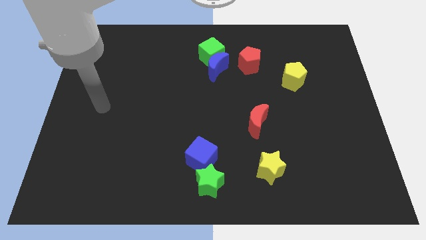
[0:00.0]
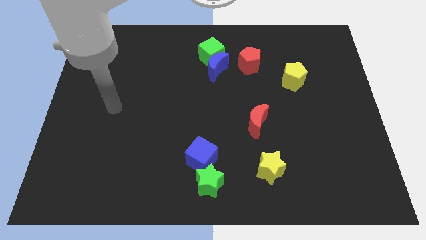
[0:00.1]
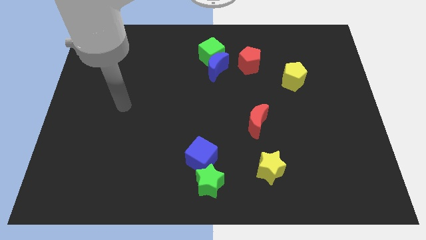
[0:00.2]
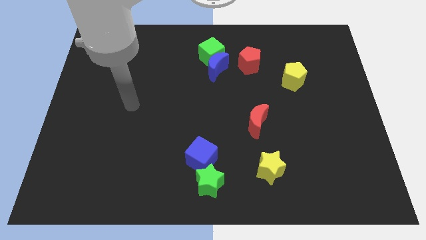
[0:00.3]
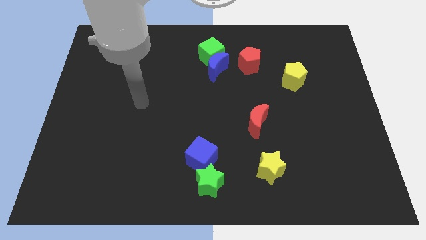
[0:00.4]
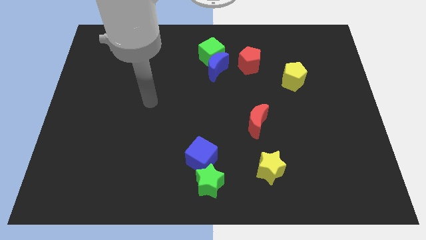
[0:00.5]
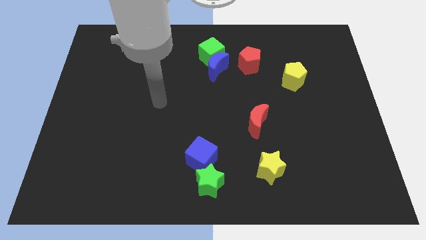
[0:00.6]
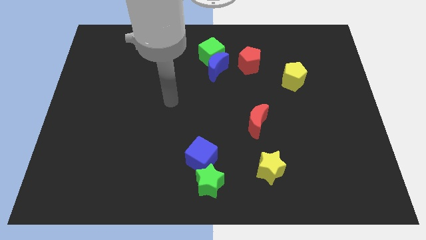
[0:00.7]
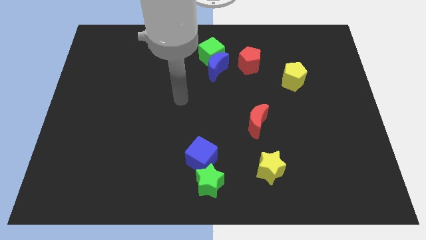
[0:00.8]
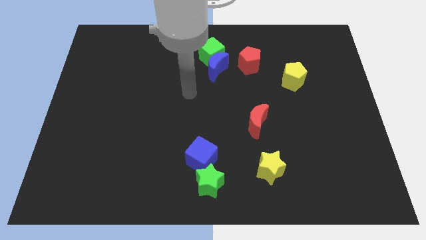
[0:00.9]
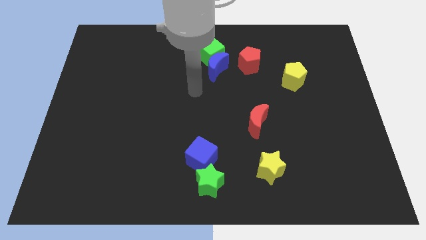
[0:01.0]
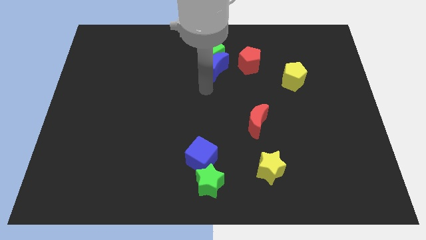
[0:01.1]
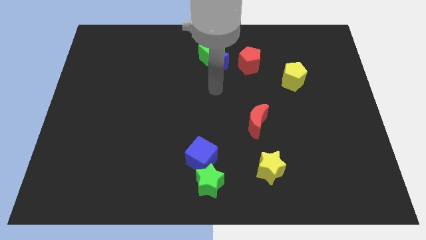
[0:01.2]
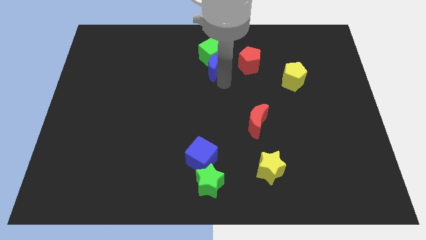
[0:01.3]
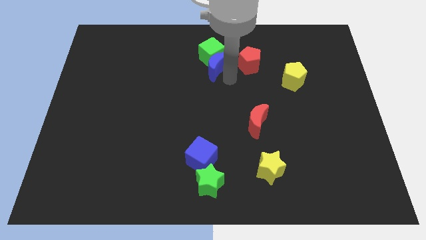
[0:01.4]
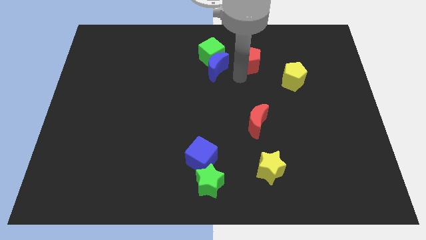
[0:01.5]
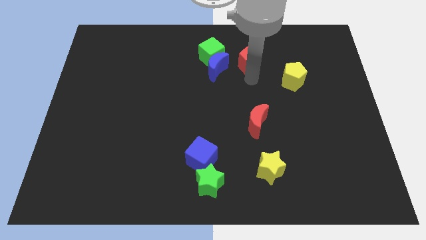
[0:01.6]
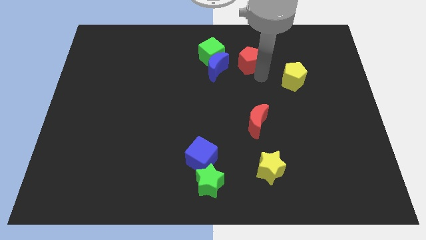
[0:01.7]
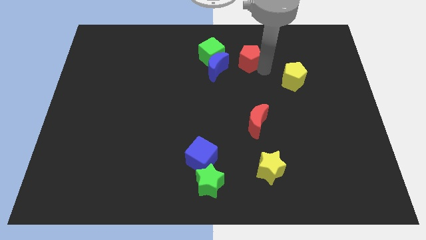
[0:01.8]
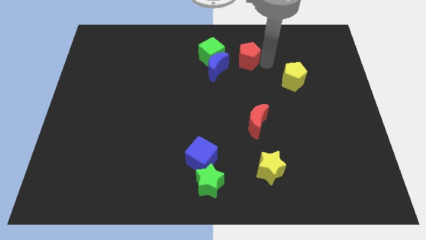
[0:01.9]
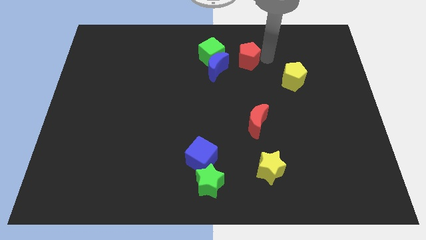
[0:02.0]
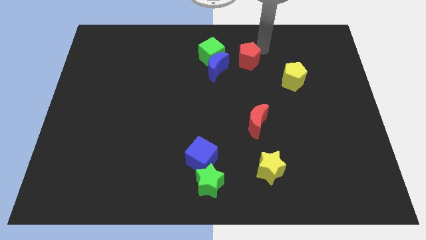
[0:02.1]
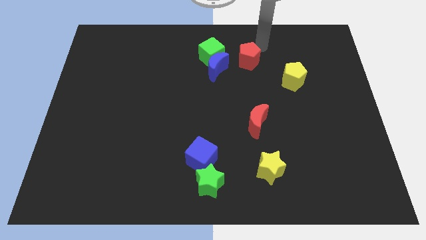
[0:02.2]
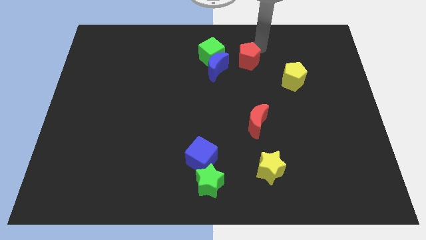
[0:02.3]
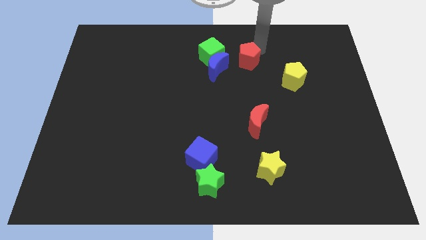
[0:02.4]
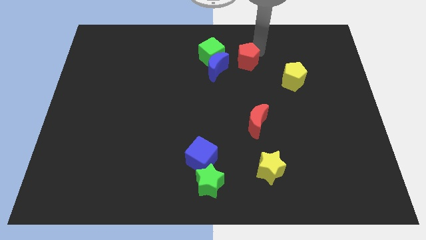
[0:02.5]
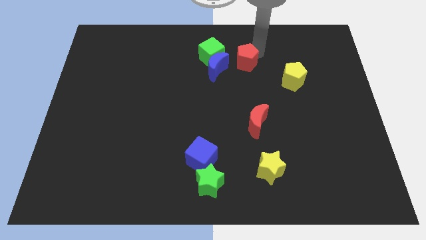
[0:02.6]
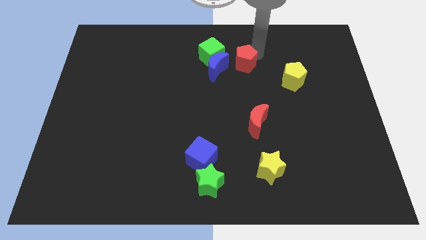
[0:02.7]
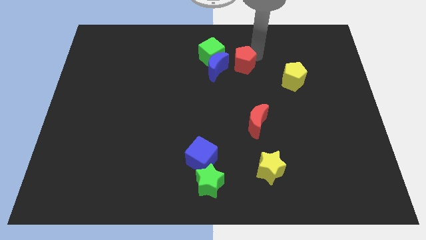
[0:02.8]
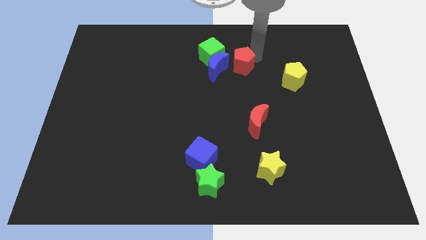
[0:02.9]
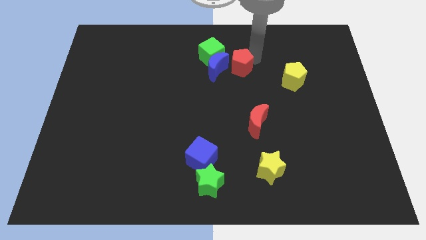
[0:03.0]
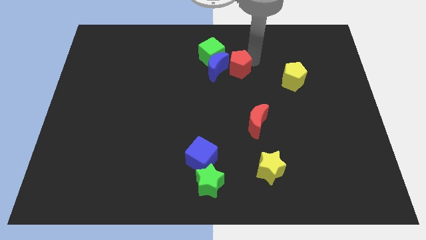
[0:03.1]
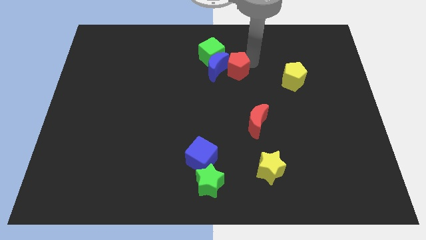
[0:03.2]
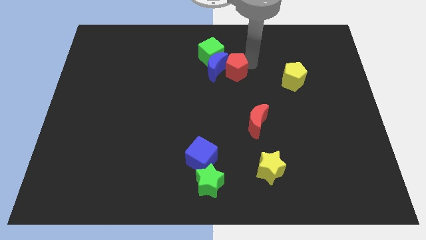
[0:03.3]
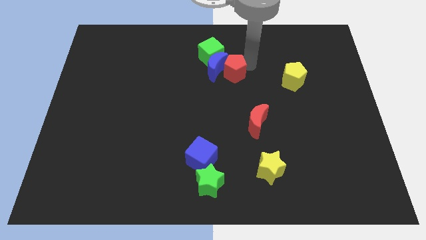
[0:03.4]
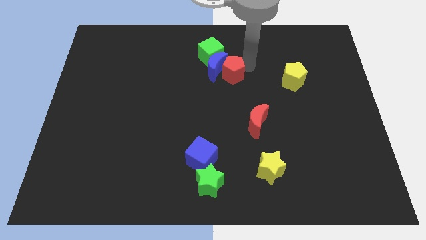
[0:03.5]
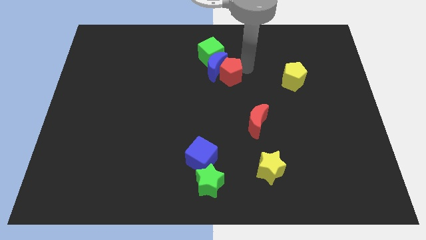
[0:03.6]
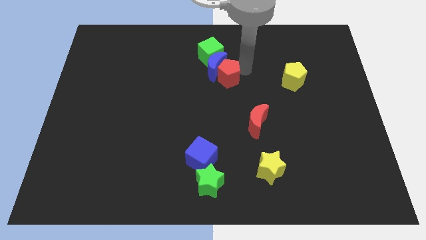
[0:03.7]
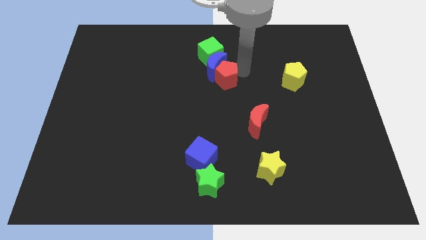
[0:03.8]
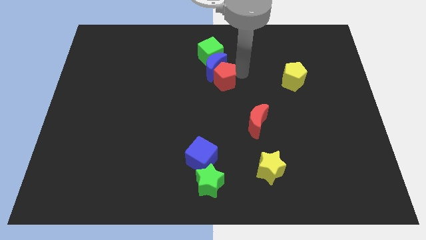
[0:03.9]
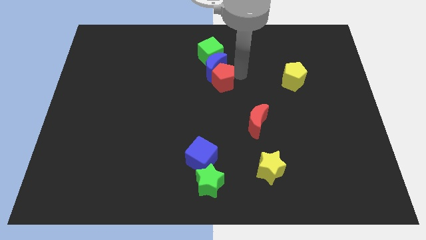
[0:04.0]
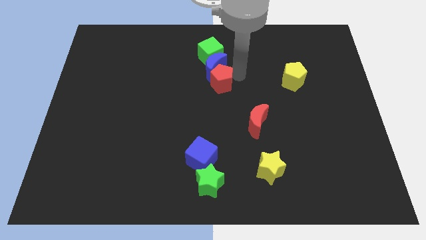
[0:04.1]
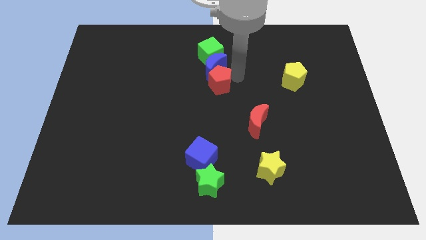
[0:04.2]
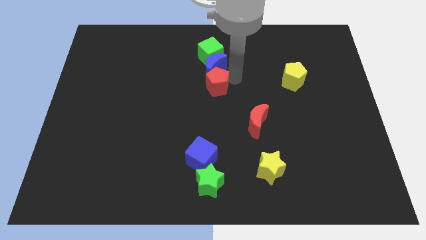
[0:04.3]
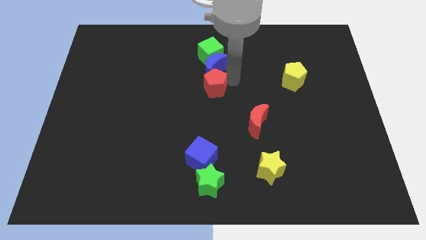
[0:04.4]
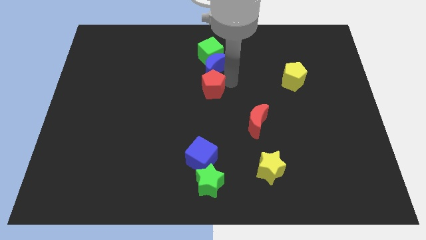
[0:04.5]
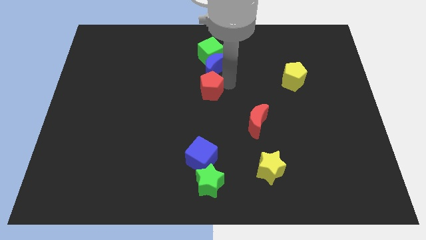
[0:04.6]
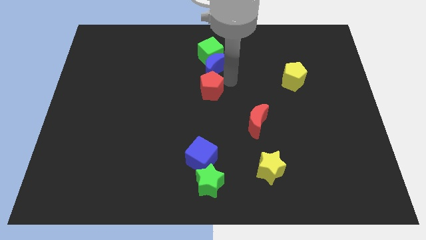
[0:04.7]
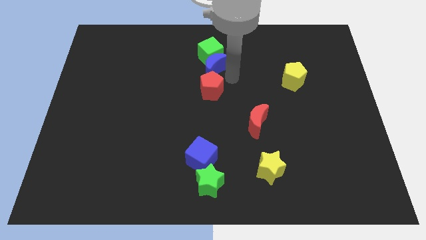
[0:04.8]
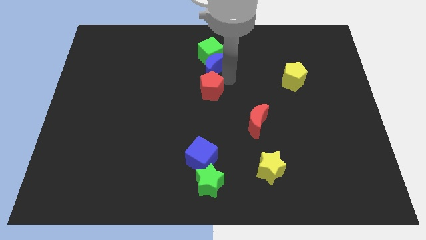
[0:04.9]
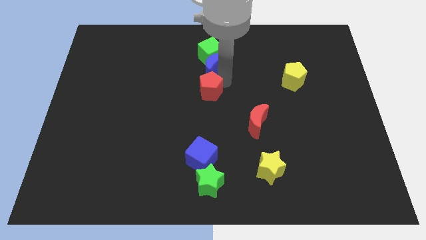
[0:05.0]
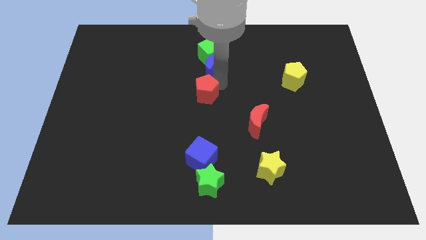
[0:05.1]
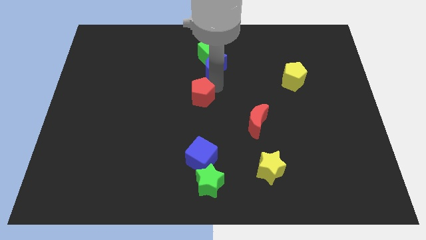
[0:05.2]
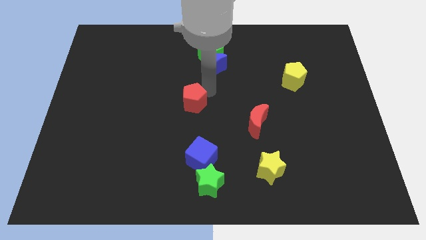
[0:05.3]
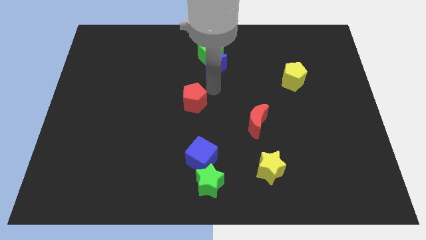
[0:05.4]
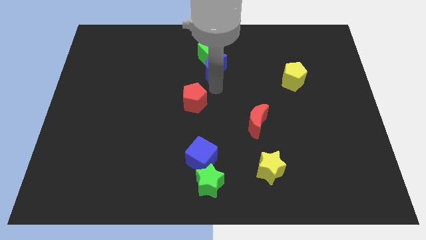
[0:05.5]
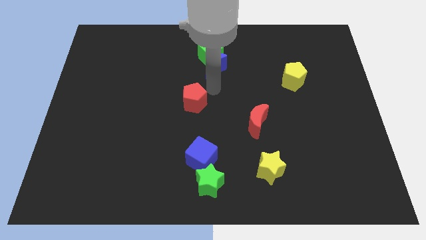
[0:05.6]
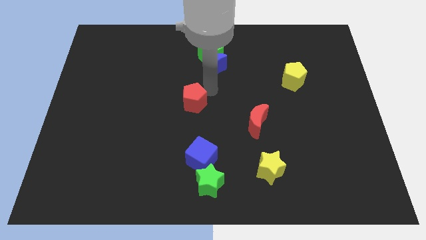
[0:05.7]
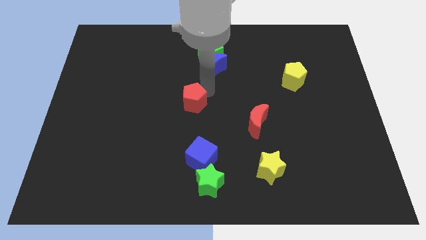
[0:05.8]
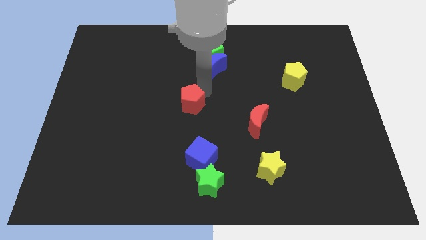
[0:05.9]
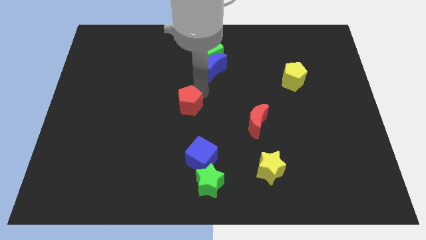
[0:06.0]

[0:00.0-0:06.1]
move the red pentagon down and then left

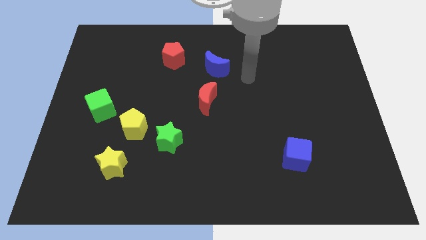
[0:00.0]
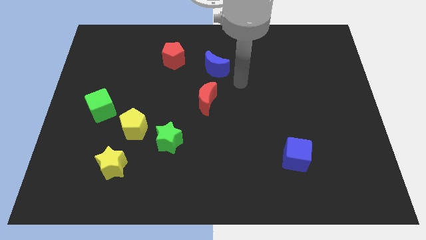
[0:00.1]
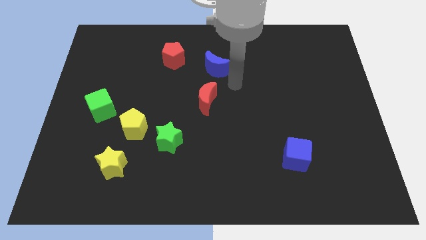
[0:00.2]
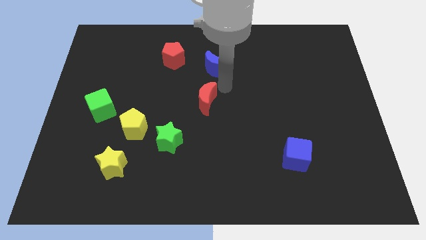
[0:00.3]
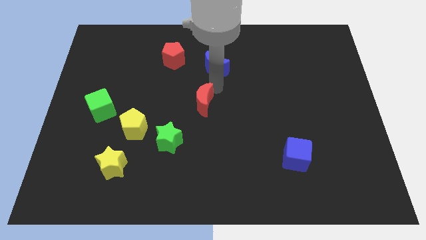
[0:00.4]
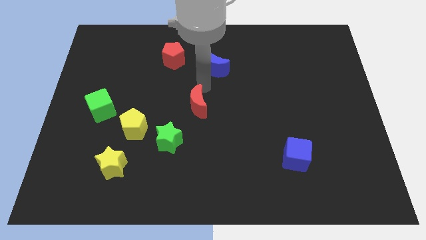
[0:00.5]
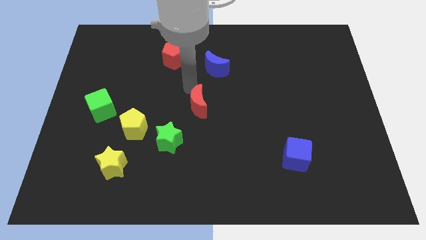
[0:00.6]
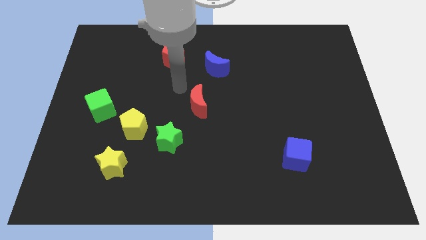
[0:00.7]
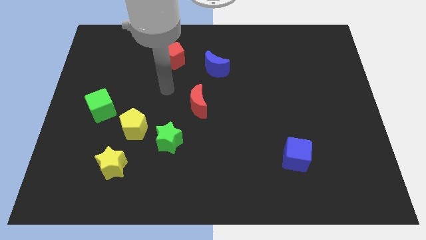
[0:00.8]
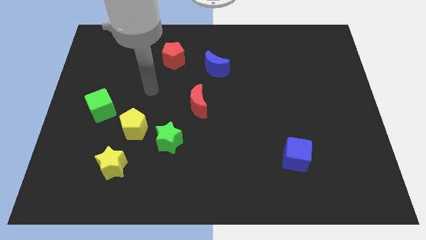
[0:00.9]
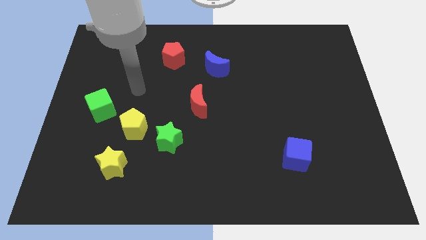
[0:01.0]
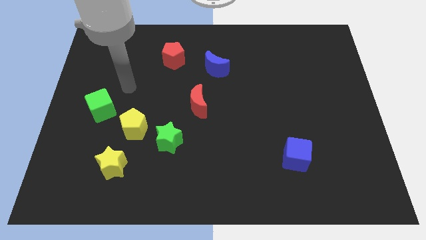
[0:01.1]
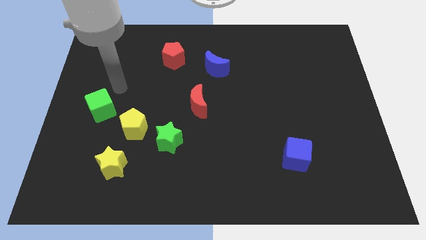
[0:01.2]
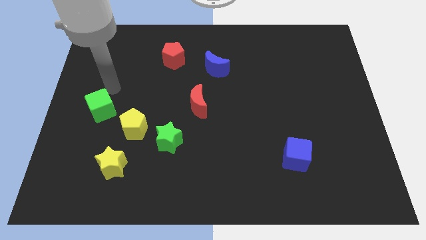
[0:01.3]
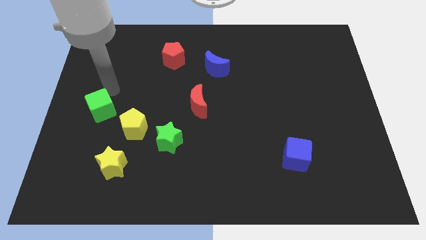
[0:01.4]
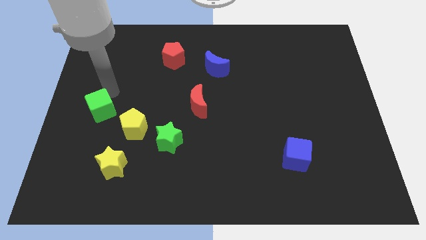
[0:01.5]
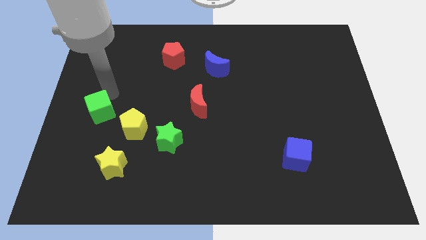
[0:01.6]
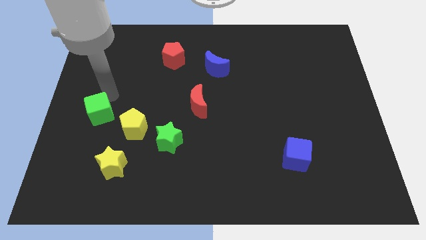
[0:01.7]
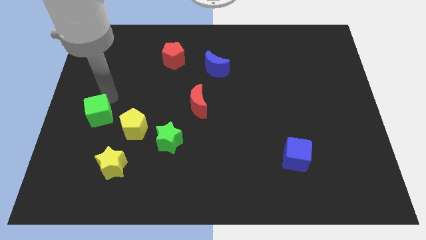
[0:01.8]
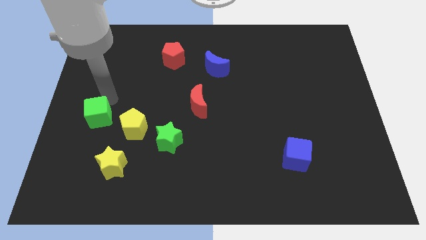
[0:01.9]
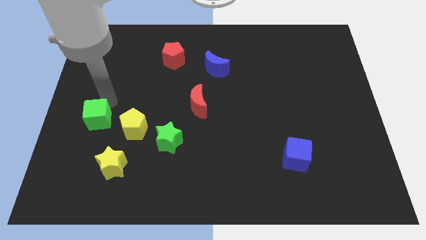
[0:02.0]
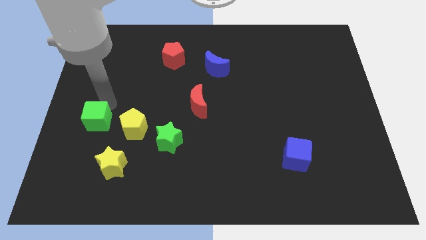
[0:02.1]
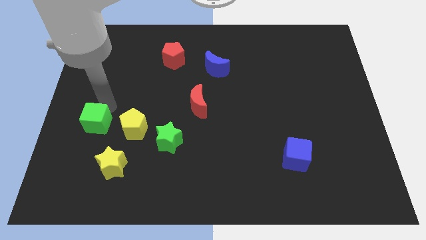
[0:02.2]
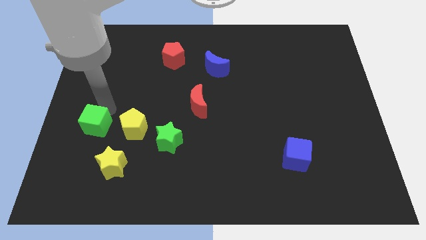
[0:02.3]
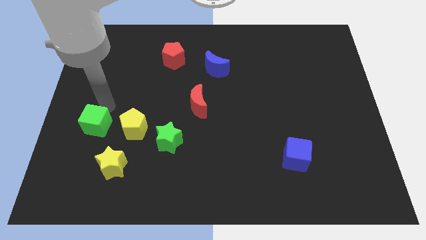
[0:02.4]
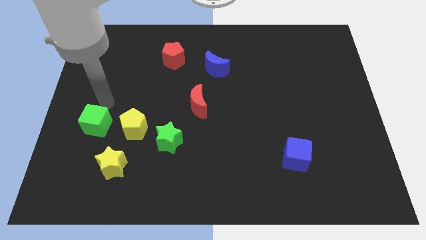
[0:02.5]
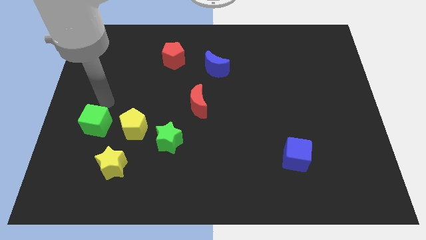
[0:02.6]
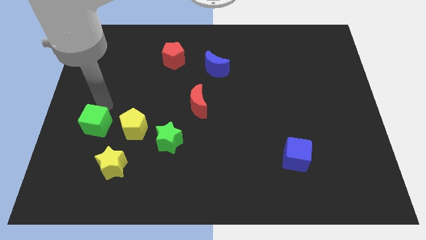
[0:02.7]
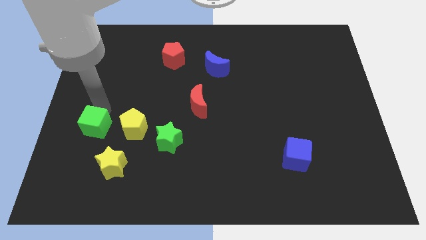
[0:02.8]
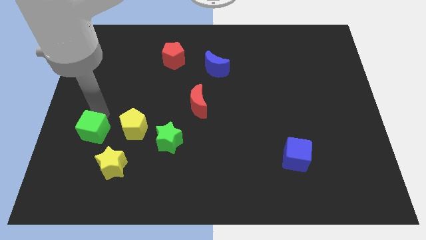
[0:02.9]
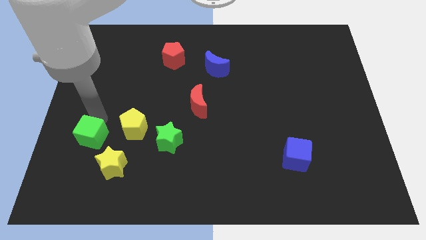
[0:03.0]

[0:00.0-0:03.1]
slightly slide the green cube downwards
